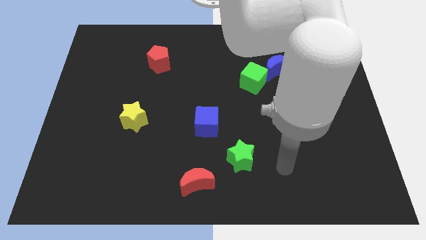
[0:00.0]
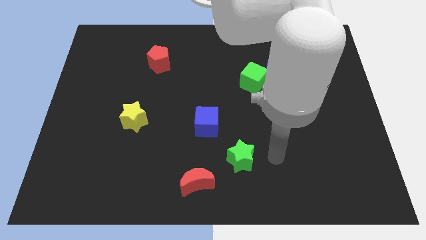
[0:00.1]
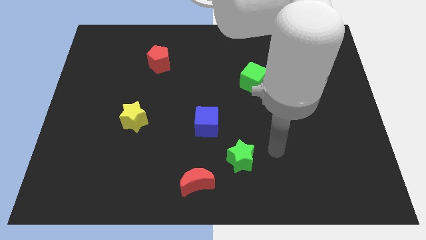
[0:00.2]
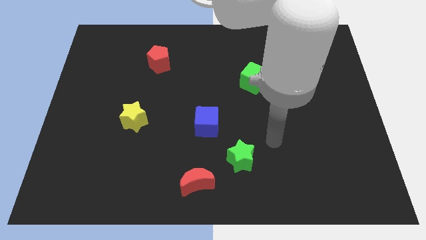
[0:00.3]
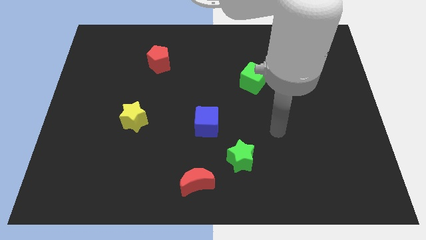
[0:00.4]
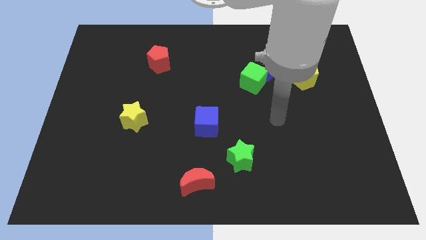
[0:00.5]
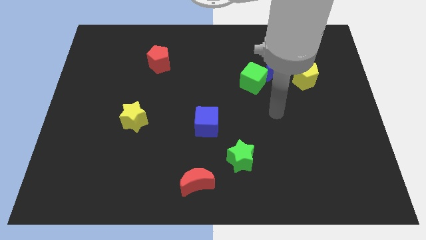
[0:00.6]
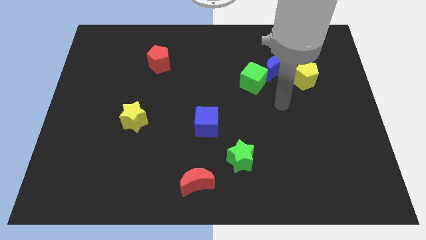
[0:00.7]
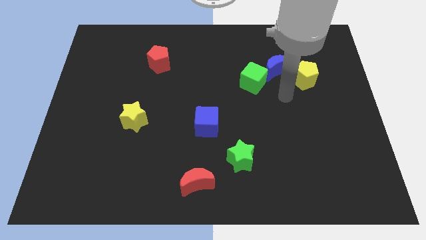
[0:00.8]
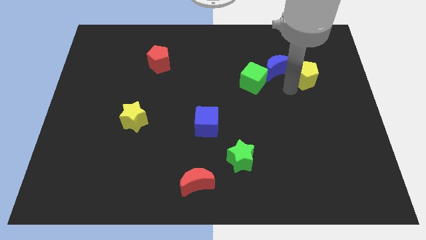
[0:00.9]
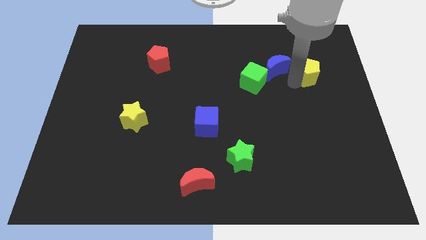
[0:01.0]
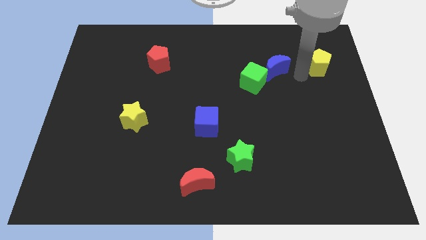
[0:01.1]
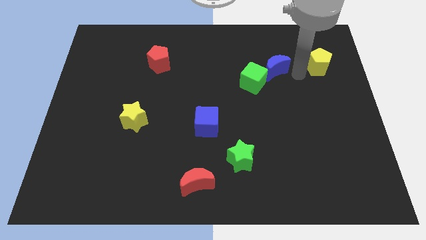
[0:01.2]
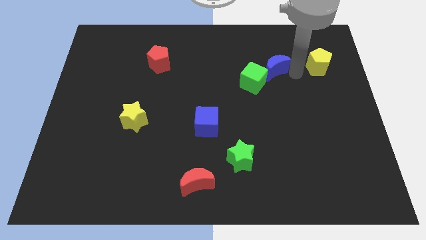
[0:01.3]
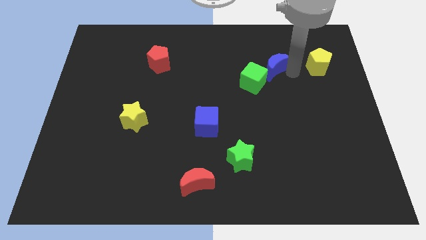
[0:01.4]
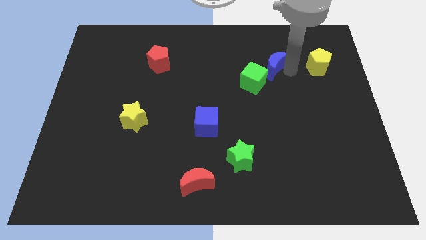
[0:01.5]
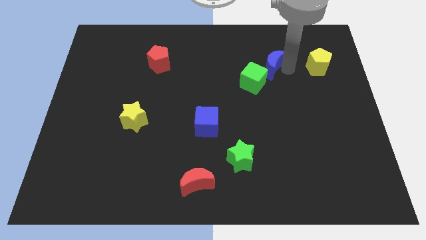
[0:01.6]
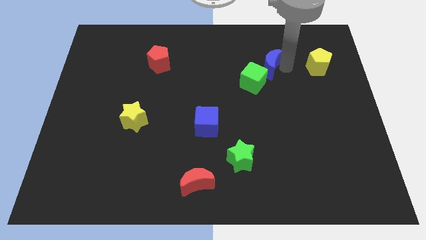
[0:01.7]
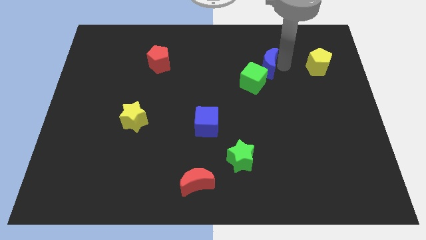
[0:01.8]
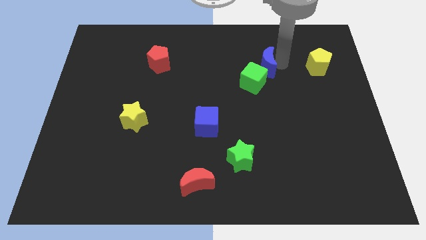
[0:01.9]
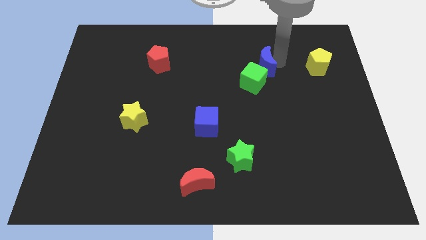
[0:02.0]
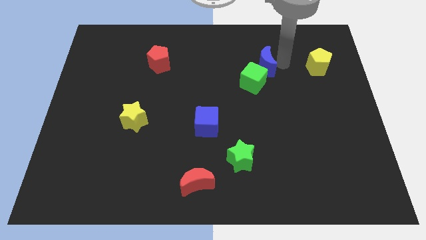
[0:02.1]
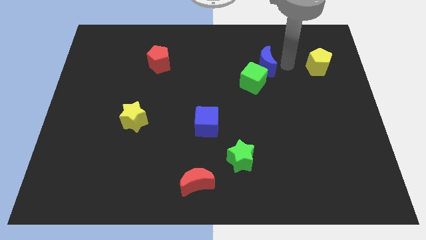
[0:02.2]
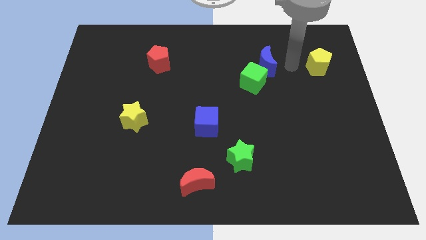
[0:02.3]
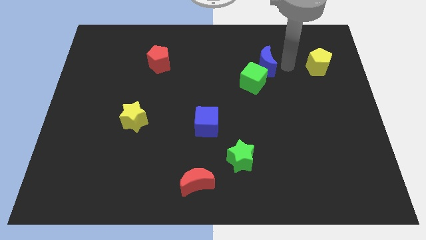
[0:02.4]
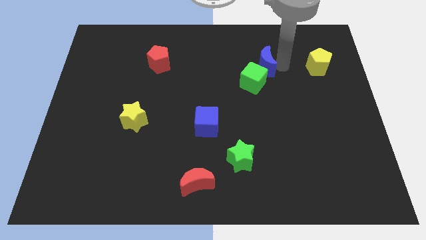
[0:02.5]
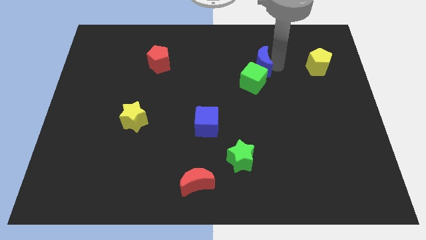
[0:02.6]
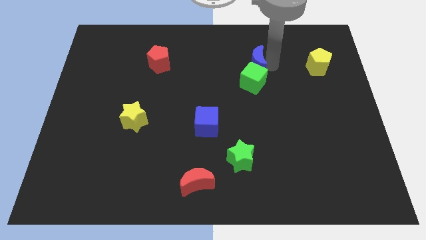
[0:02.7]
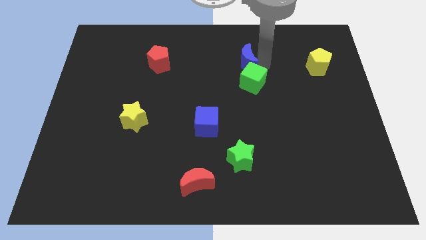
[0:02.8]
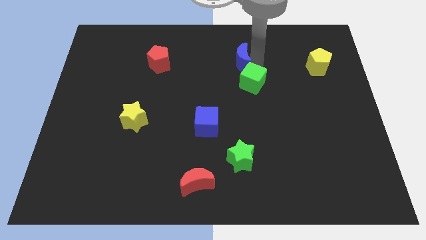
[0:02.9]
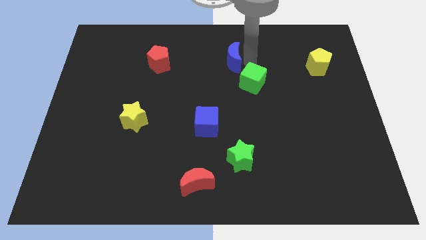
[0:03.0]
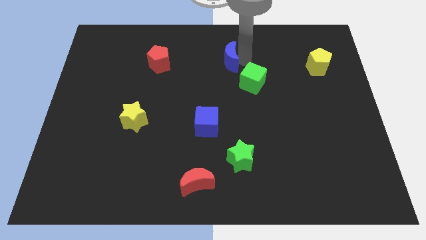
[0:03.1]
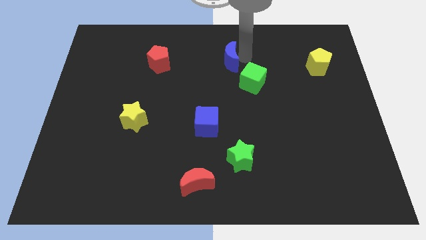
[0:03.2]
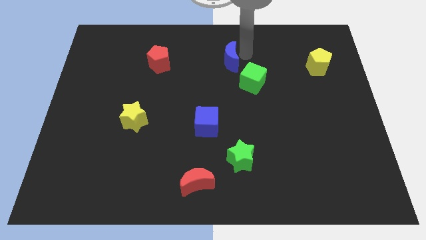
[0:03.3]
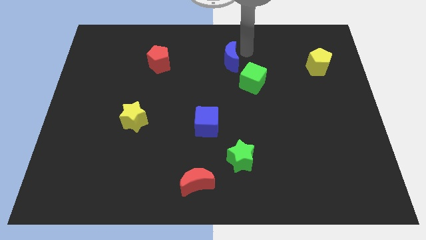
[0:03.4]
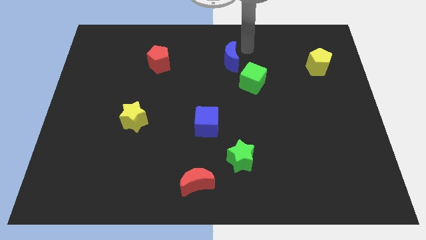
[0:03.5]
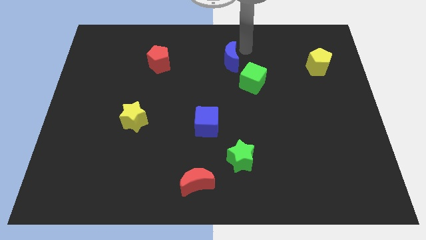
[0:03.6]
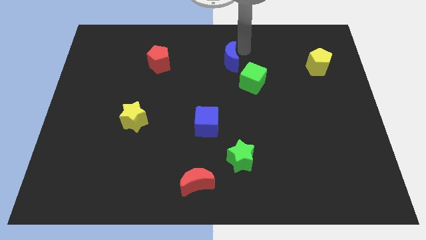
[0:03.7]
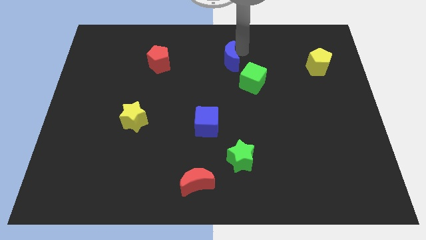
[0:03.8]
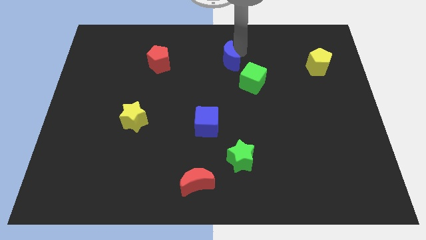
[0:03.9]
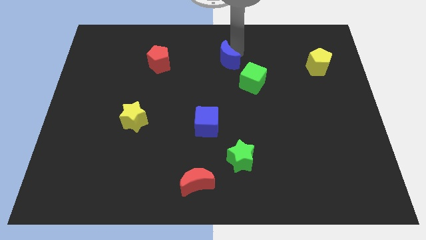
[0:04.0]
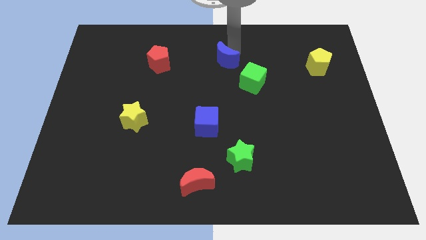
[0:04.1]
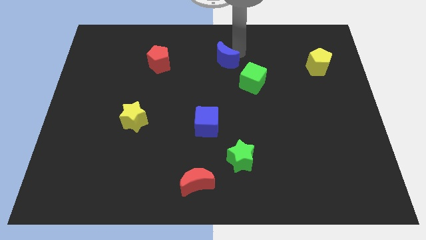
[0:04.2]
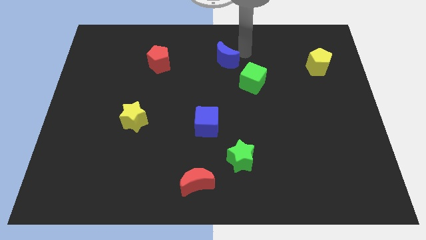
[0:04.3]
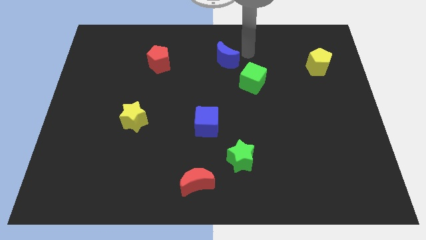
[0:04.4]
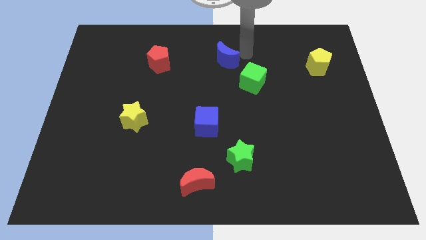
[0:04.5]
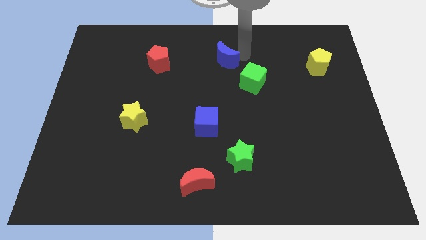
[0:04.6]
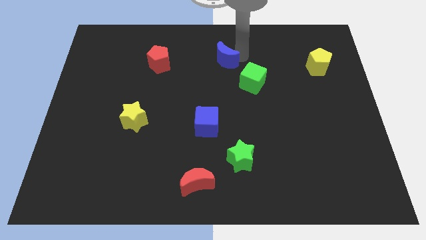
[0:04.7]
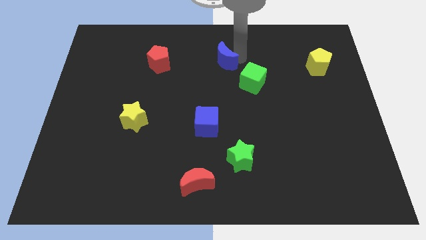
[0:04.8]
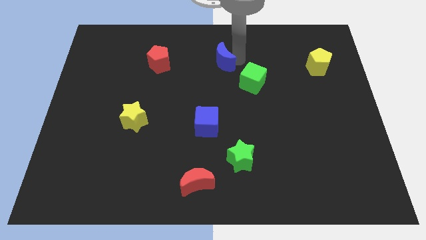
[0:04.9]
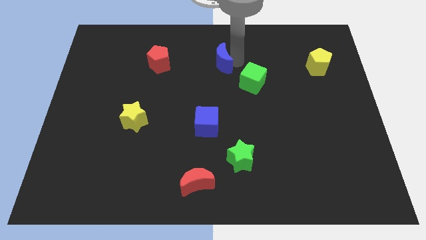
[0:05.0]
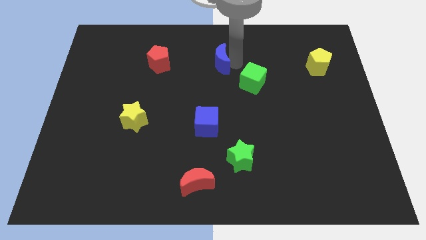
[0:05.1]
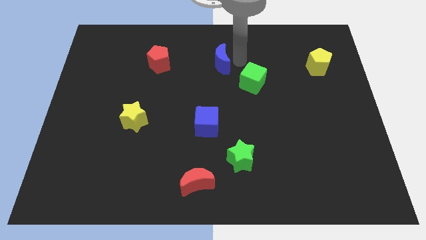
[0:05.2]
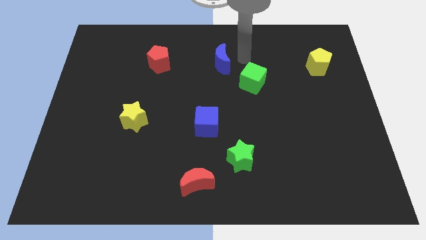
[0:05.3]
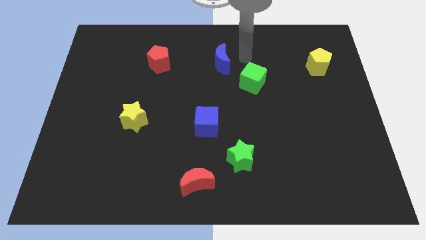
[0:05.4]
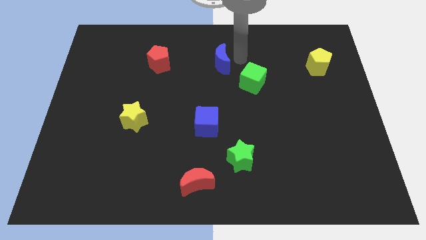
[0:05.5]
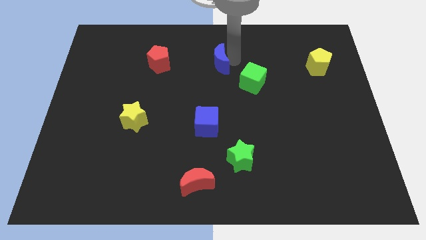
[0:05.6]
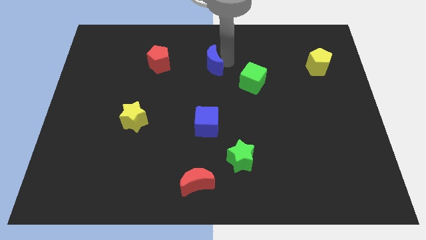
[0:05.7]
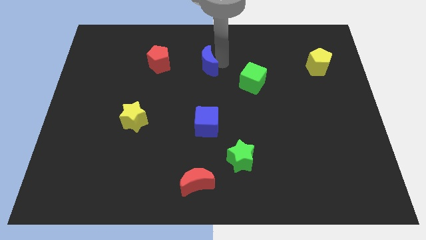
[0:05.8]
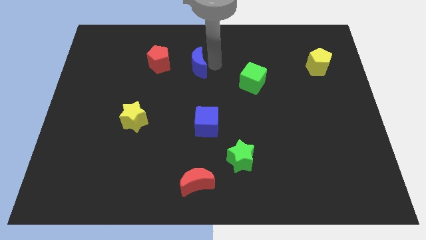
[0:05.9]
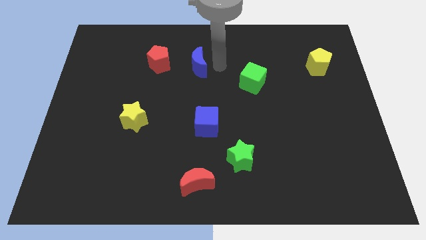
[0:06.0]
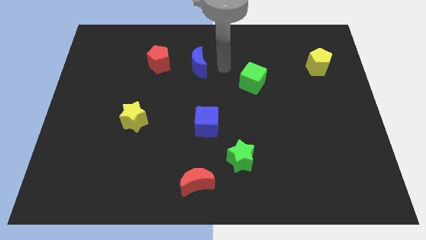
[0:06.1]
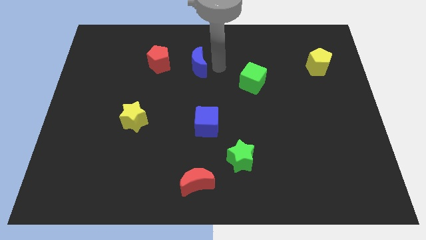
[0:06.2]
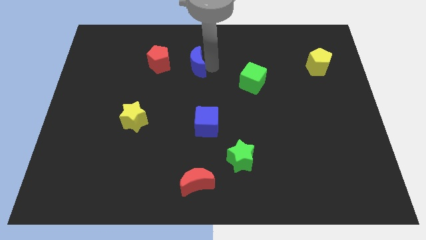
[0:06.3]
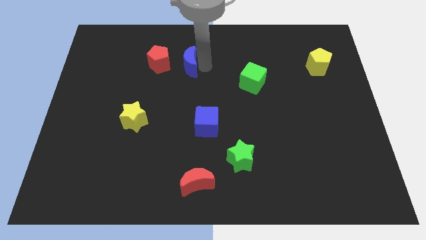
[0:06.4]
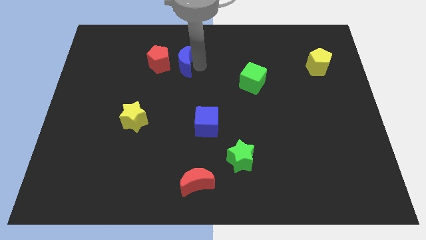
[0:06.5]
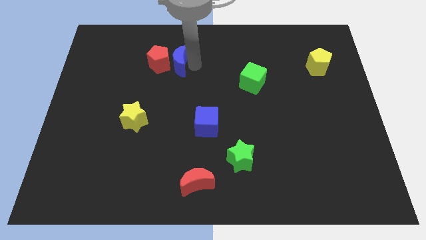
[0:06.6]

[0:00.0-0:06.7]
push the blue moon to the red pentagon
